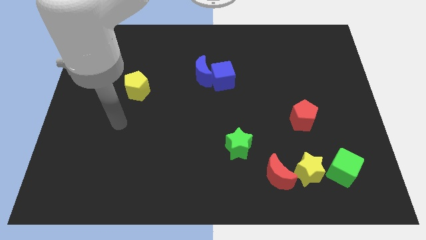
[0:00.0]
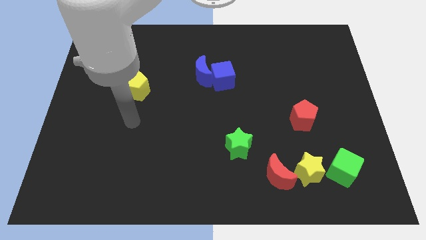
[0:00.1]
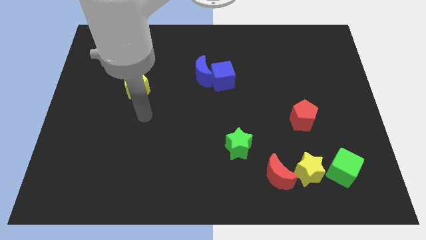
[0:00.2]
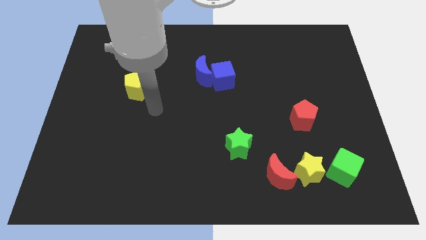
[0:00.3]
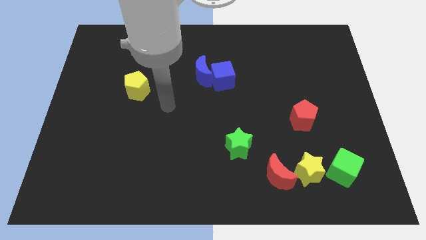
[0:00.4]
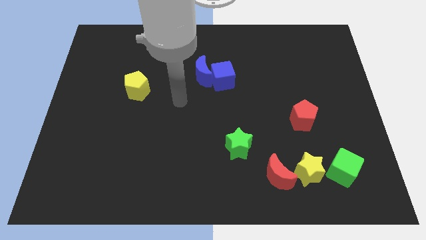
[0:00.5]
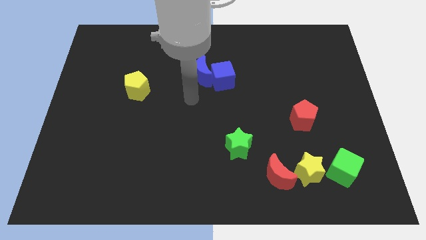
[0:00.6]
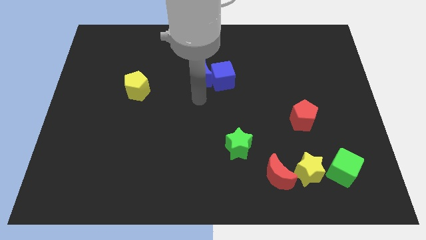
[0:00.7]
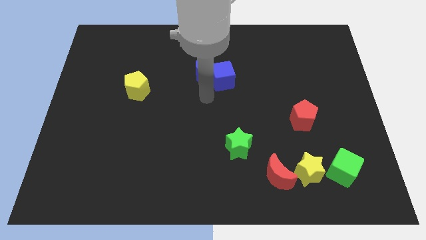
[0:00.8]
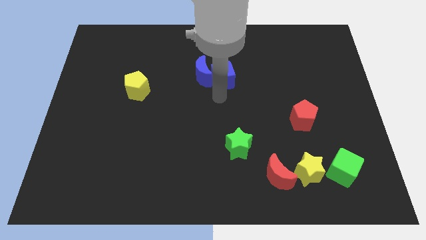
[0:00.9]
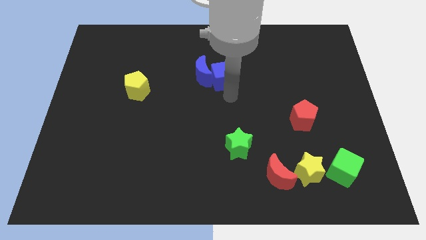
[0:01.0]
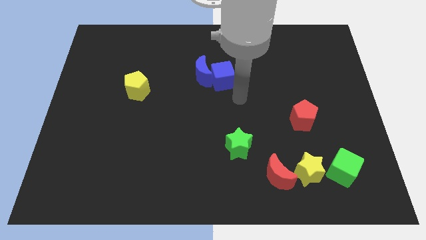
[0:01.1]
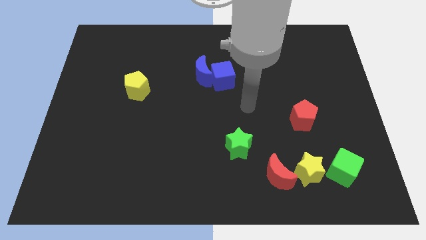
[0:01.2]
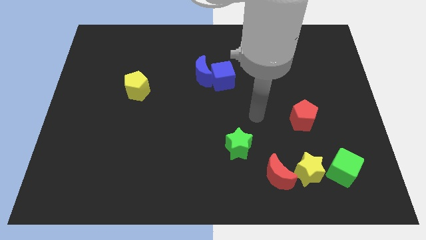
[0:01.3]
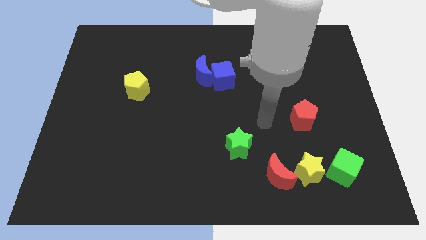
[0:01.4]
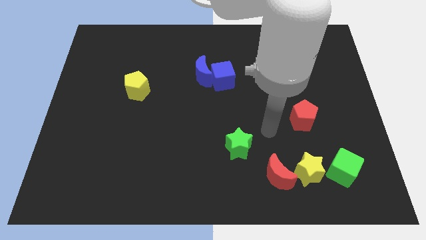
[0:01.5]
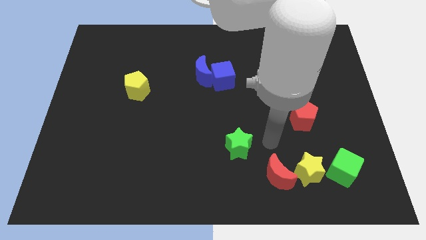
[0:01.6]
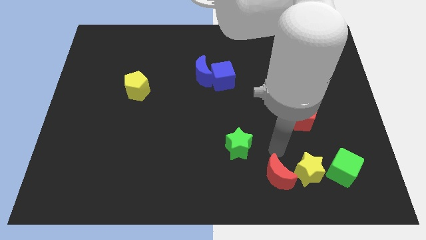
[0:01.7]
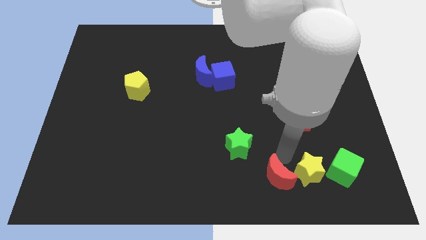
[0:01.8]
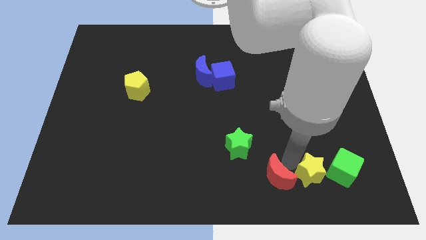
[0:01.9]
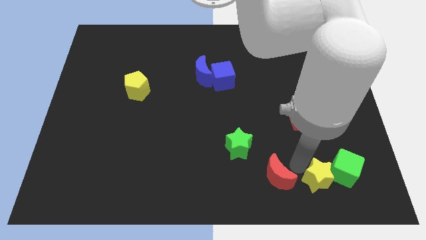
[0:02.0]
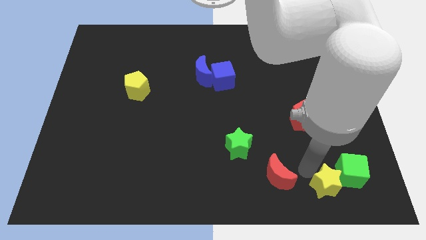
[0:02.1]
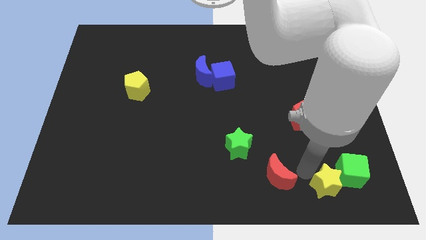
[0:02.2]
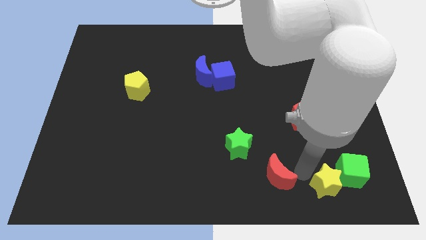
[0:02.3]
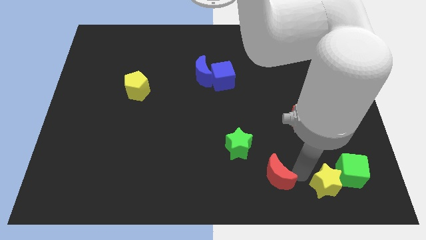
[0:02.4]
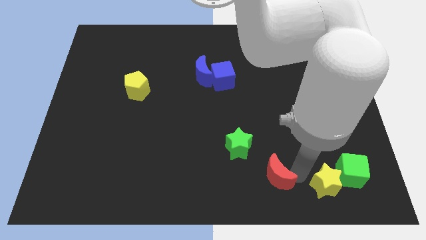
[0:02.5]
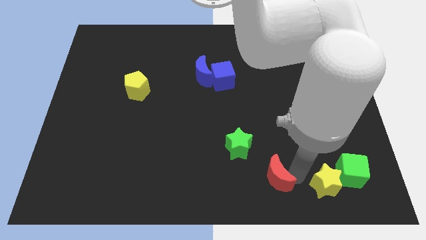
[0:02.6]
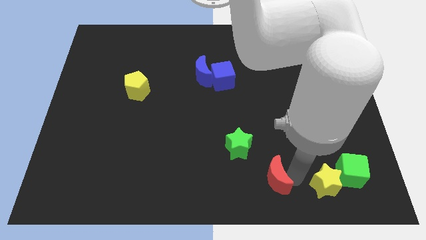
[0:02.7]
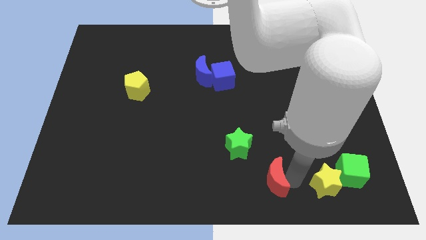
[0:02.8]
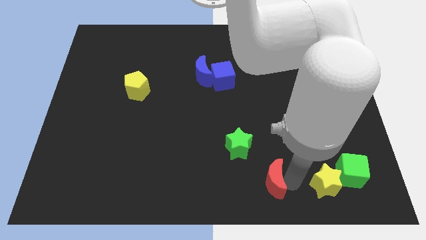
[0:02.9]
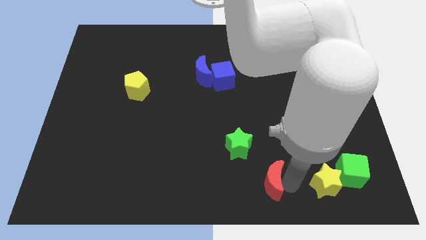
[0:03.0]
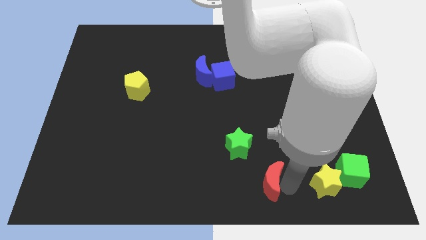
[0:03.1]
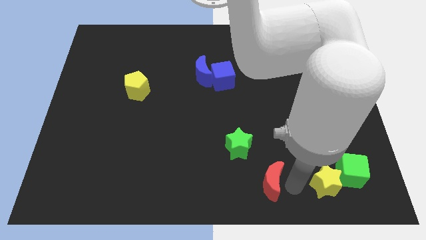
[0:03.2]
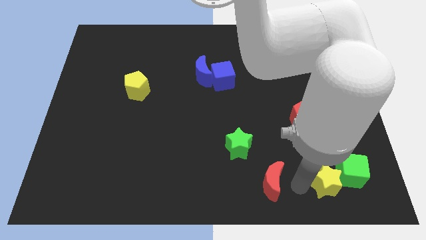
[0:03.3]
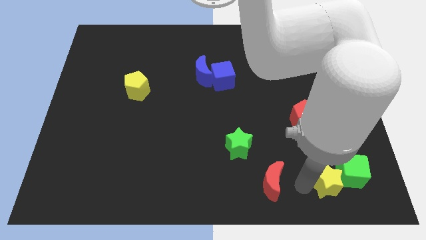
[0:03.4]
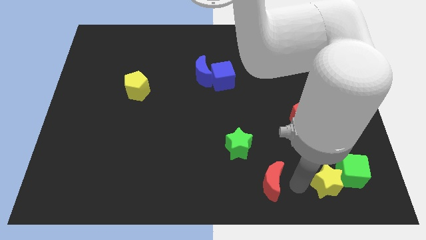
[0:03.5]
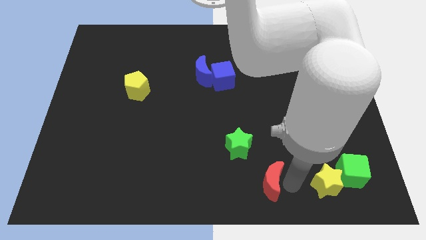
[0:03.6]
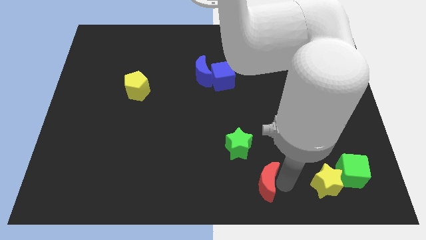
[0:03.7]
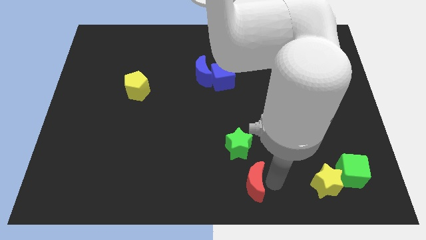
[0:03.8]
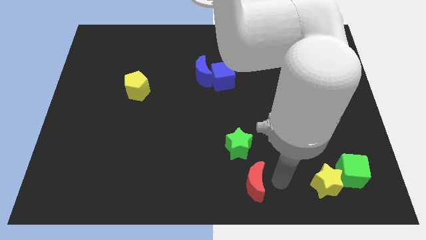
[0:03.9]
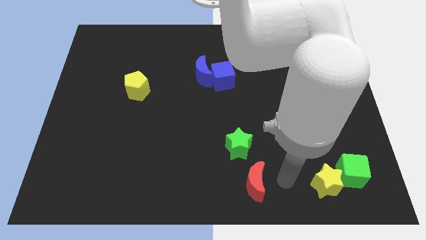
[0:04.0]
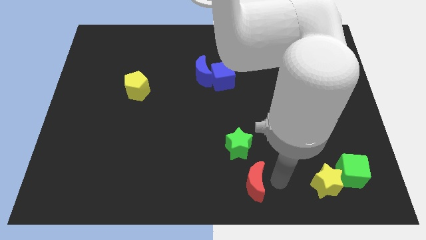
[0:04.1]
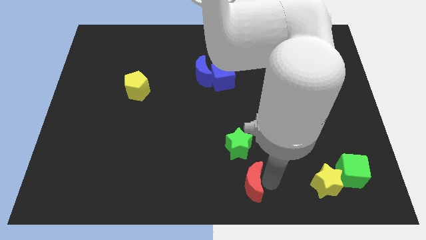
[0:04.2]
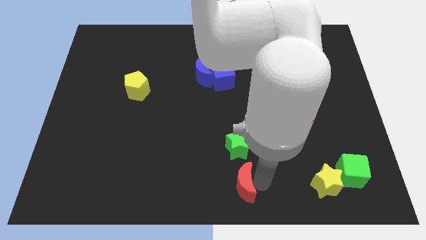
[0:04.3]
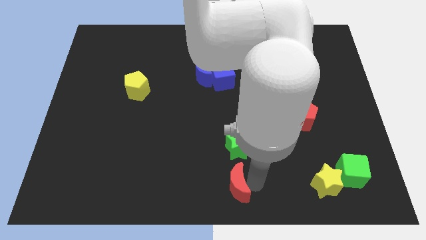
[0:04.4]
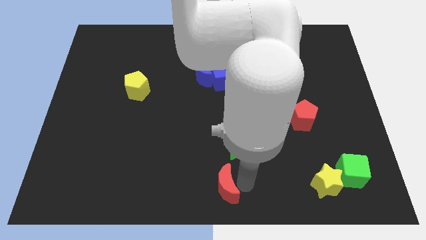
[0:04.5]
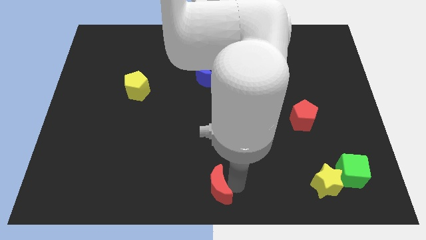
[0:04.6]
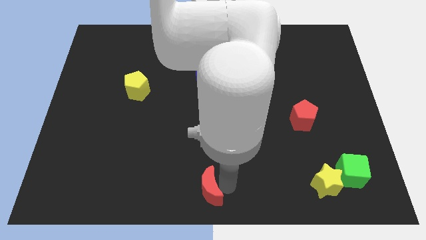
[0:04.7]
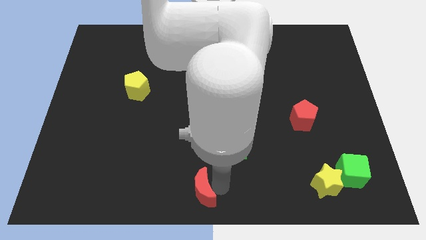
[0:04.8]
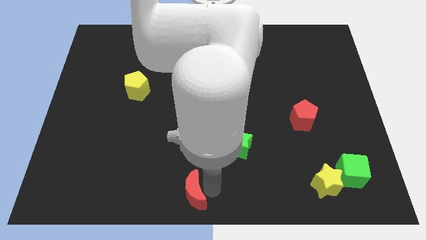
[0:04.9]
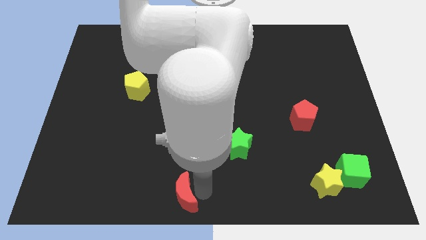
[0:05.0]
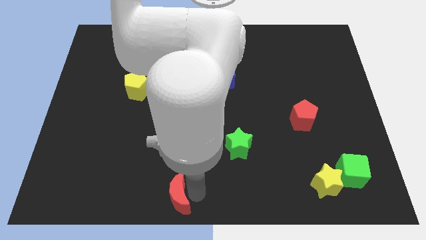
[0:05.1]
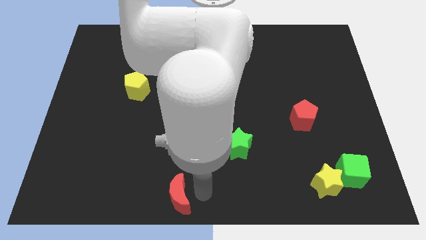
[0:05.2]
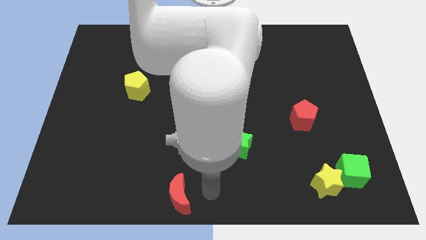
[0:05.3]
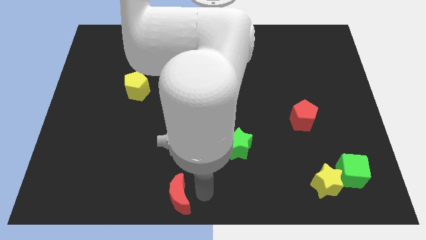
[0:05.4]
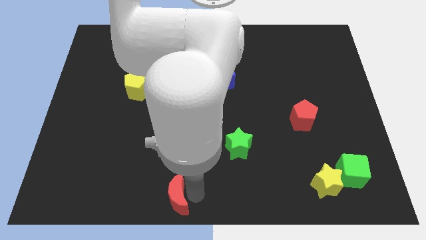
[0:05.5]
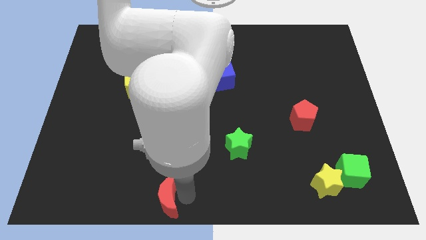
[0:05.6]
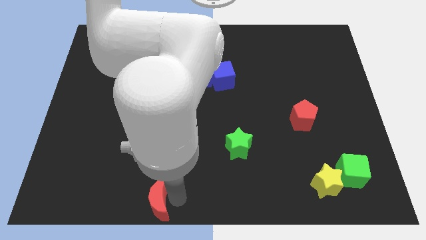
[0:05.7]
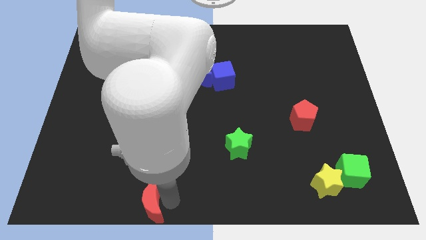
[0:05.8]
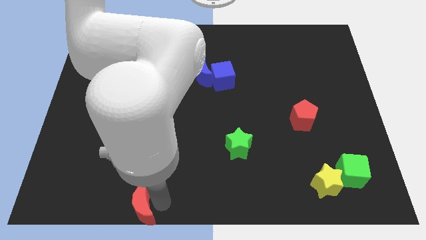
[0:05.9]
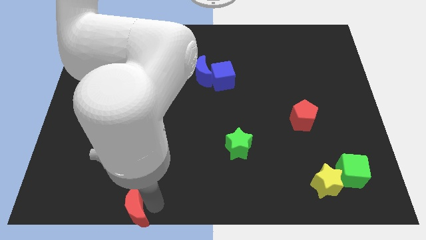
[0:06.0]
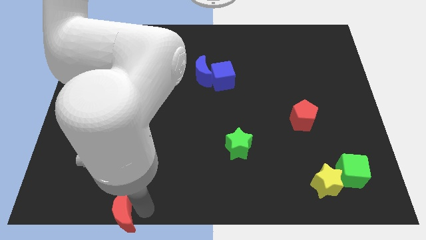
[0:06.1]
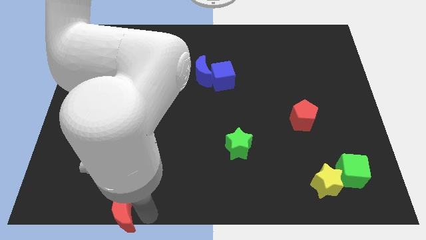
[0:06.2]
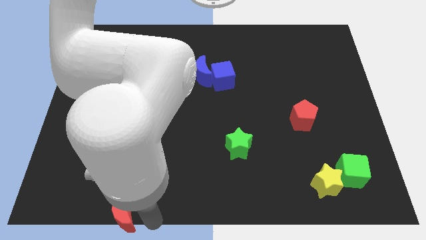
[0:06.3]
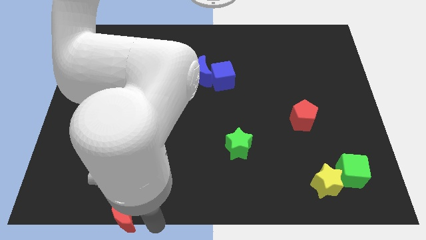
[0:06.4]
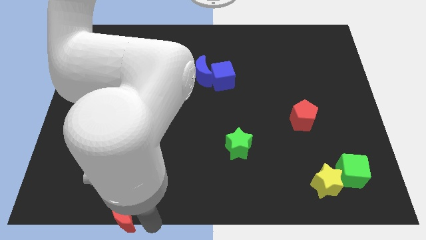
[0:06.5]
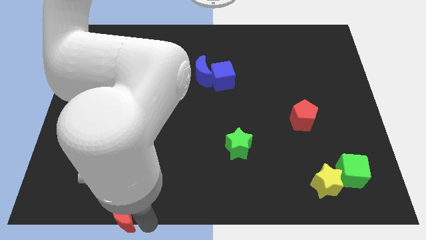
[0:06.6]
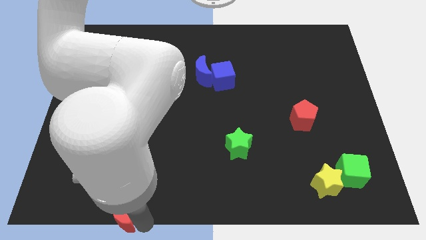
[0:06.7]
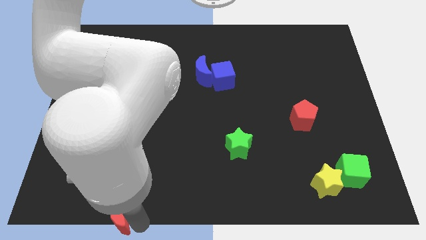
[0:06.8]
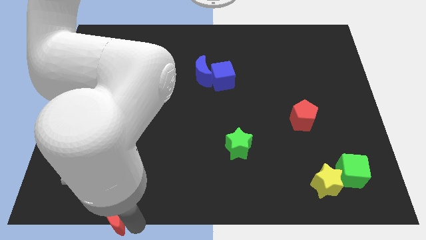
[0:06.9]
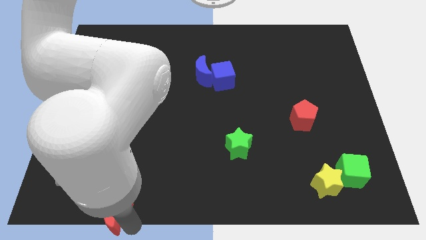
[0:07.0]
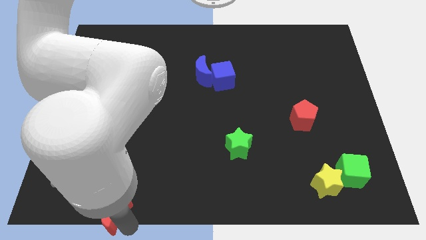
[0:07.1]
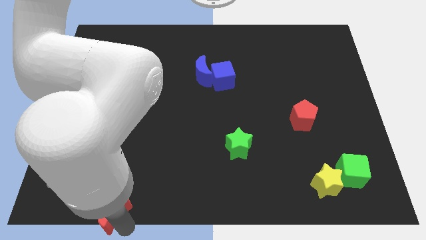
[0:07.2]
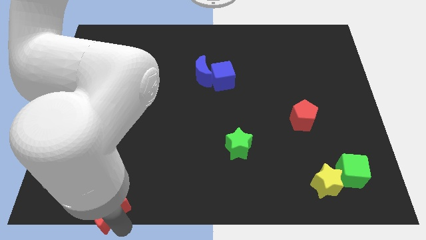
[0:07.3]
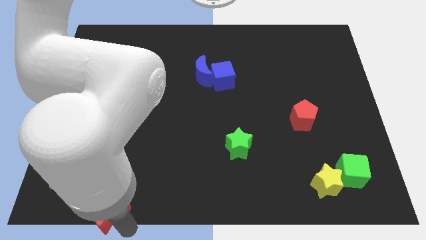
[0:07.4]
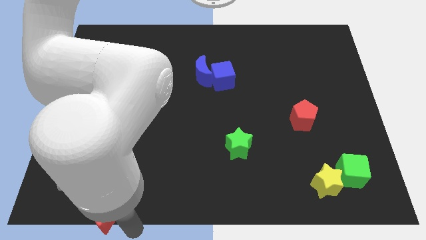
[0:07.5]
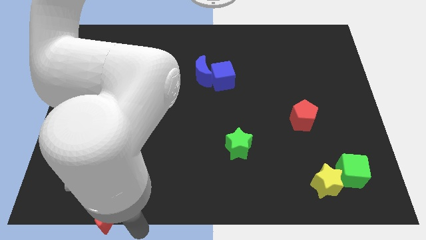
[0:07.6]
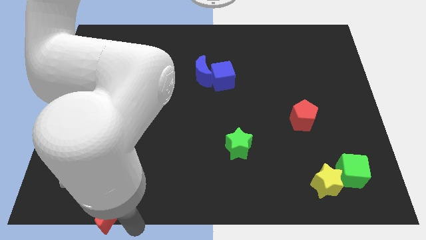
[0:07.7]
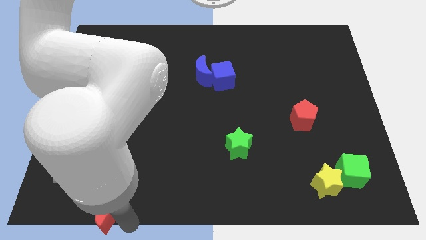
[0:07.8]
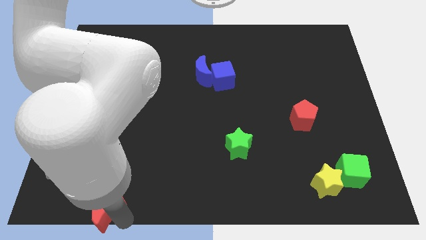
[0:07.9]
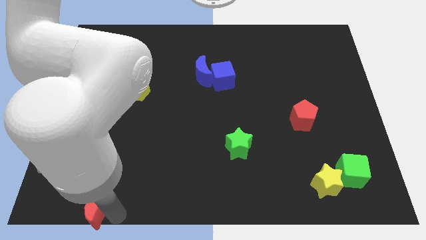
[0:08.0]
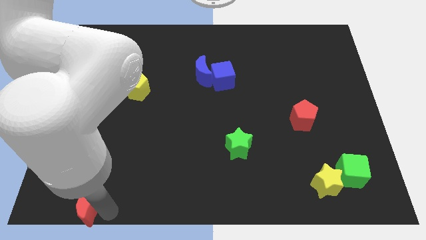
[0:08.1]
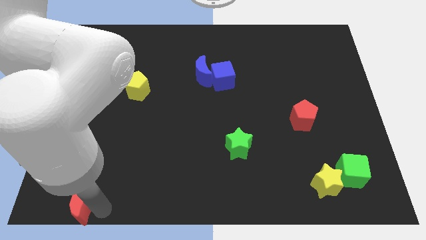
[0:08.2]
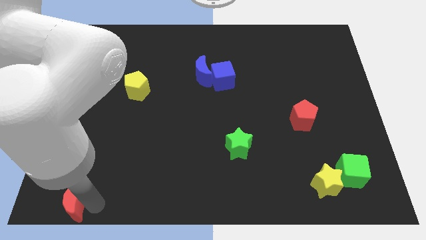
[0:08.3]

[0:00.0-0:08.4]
slide the red moon to the bottom left
